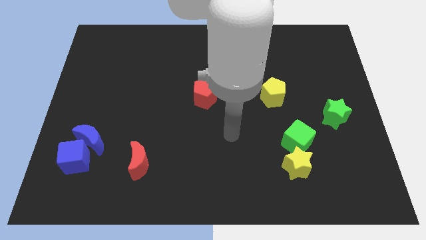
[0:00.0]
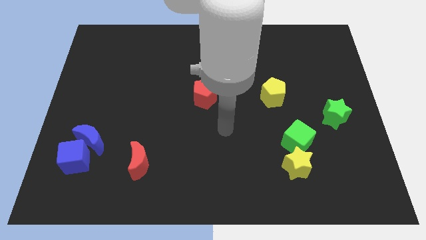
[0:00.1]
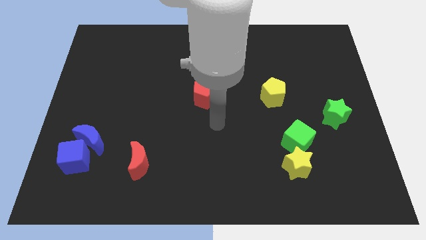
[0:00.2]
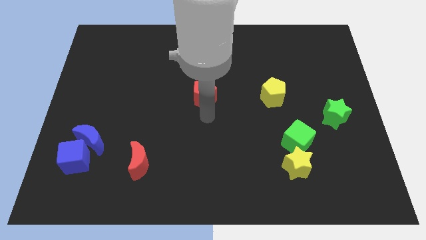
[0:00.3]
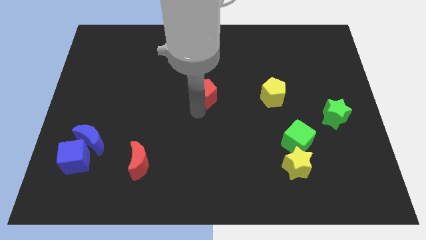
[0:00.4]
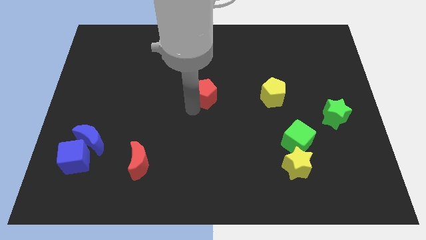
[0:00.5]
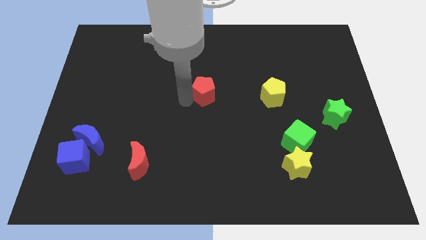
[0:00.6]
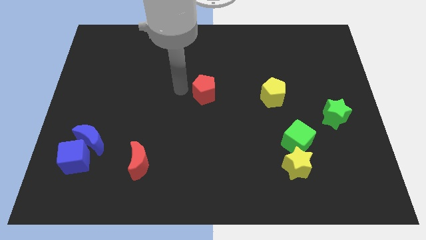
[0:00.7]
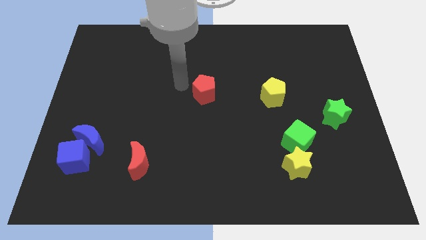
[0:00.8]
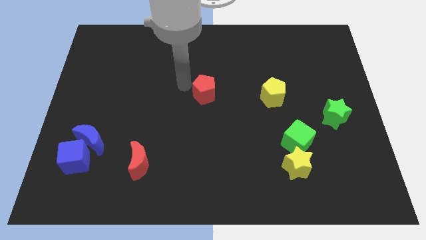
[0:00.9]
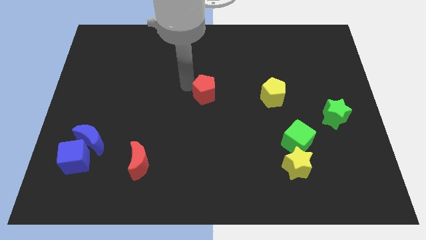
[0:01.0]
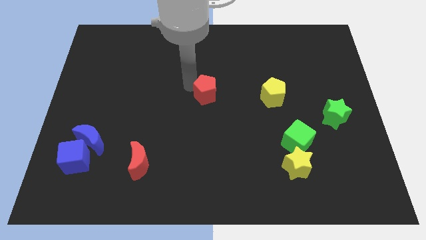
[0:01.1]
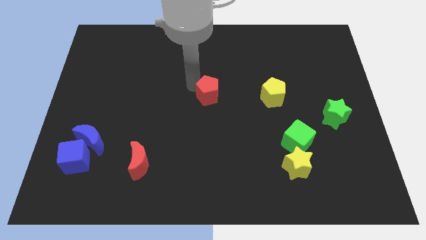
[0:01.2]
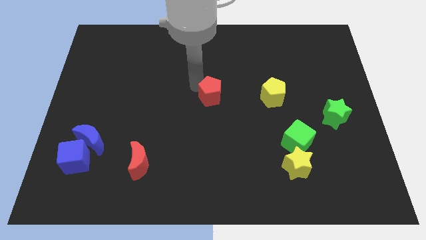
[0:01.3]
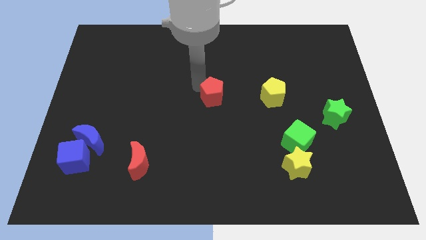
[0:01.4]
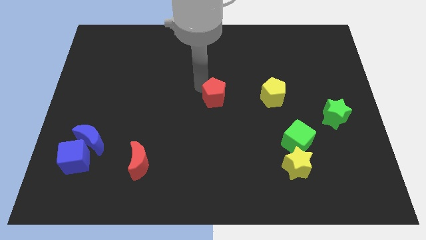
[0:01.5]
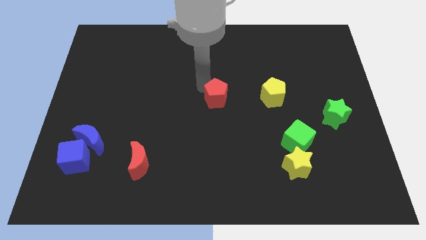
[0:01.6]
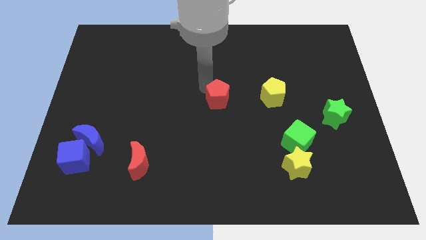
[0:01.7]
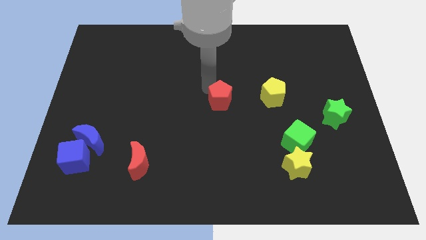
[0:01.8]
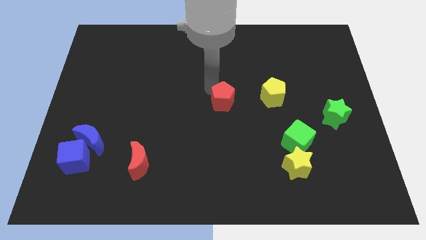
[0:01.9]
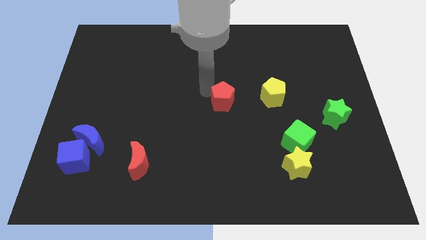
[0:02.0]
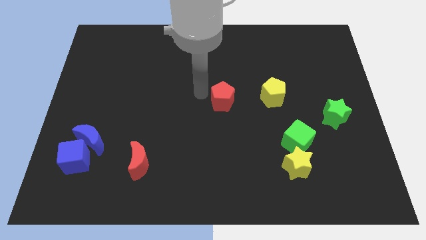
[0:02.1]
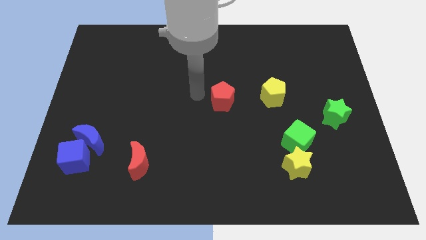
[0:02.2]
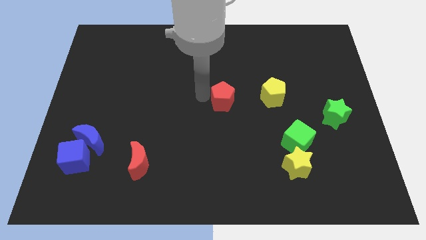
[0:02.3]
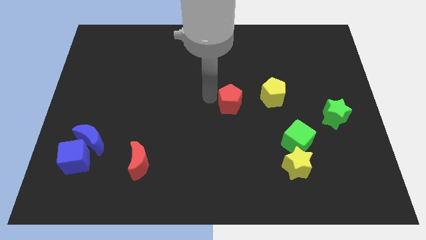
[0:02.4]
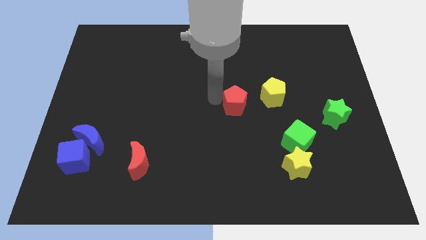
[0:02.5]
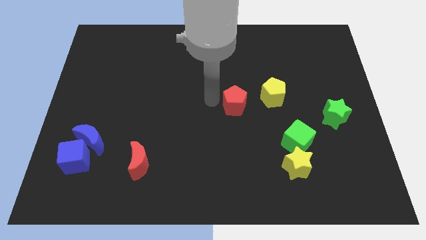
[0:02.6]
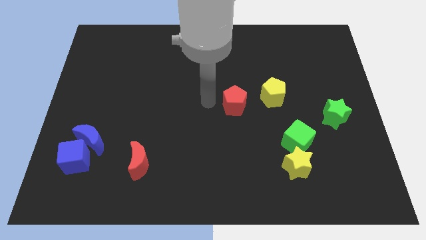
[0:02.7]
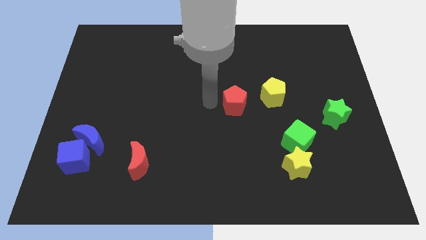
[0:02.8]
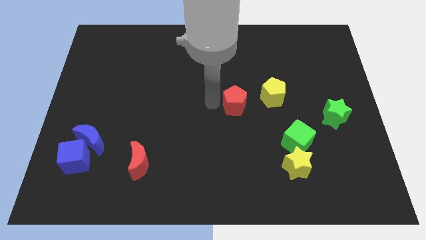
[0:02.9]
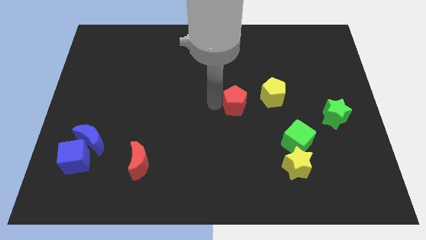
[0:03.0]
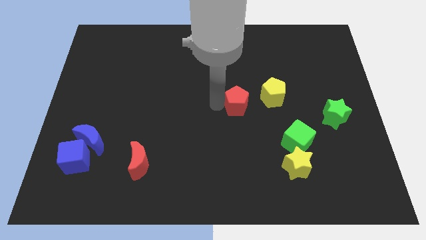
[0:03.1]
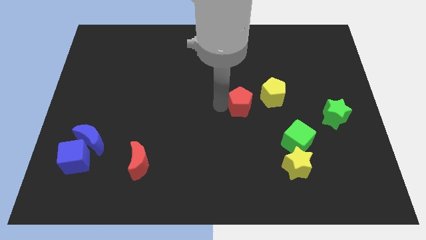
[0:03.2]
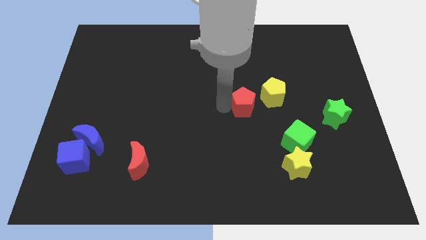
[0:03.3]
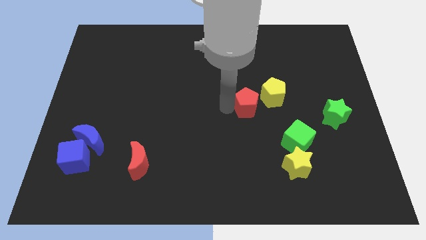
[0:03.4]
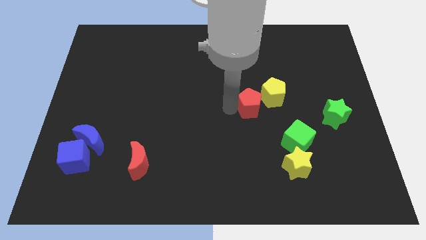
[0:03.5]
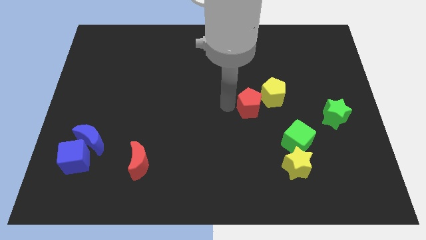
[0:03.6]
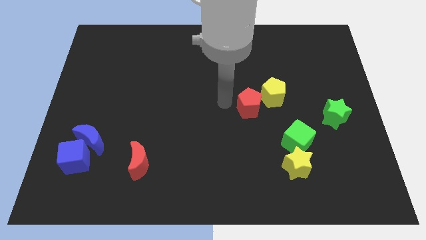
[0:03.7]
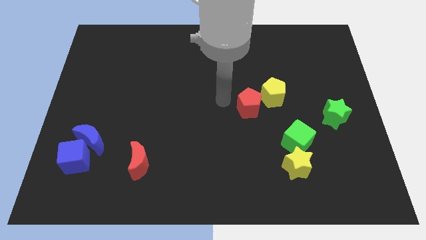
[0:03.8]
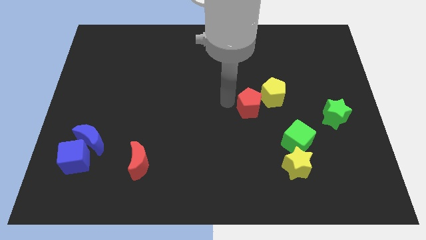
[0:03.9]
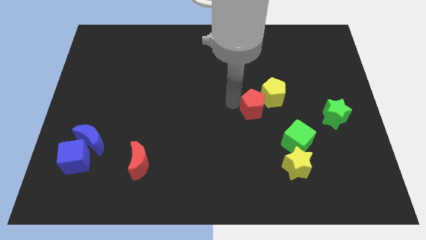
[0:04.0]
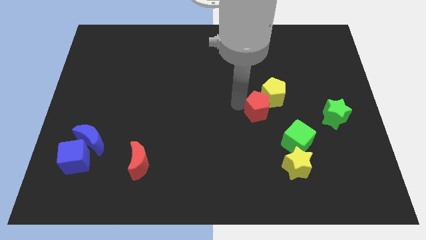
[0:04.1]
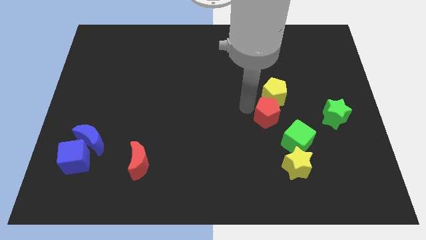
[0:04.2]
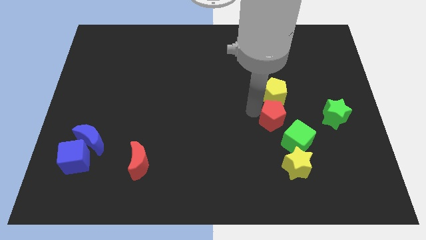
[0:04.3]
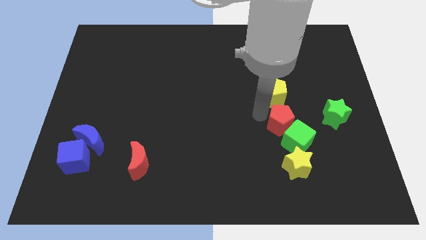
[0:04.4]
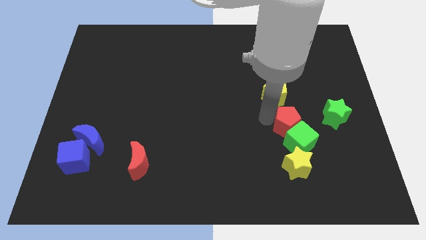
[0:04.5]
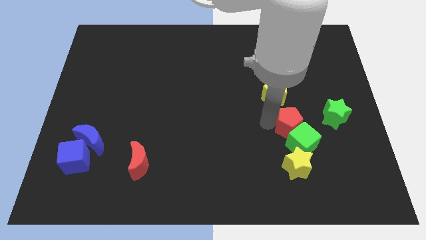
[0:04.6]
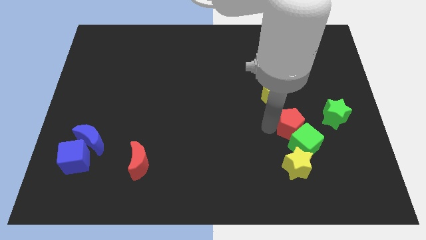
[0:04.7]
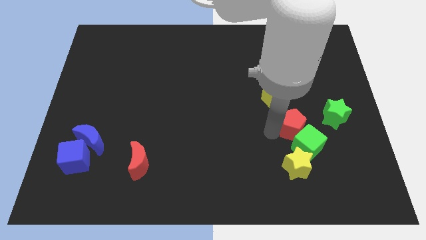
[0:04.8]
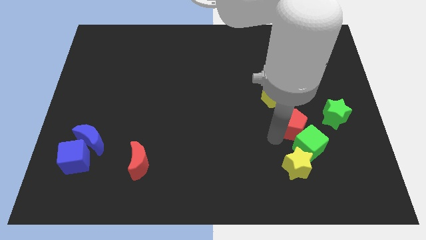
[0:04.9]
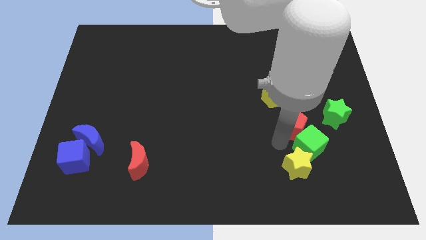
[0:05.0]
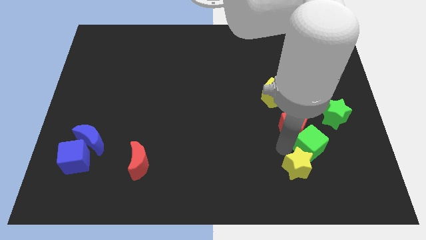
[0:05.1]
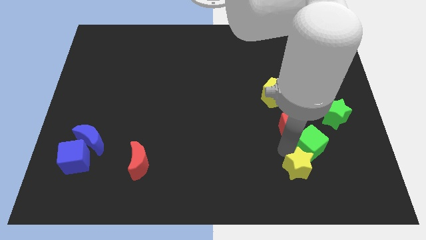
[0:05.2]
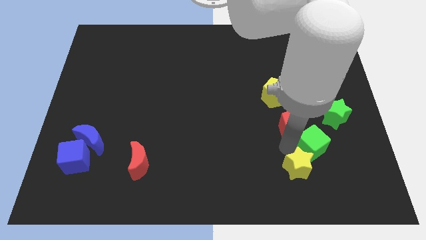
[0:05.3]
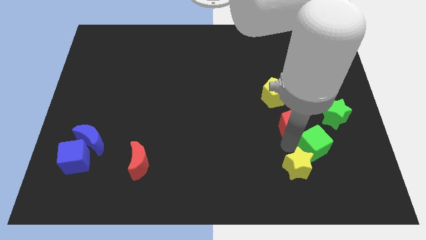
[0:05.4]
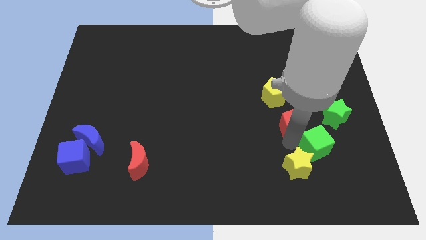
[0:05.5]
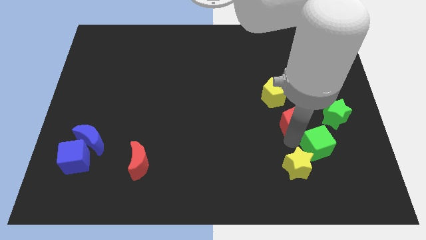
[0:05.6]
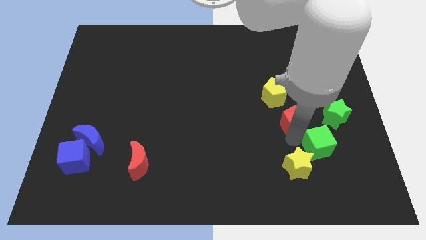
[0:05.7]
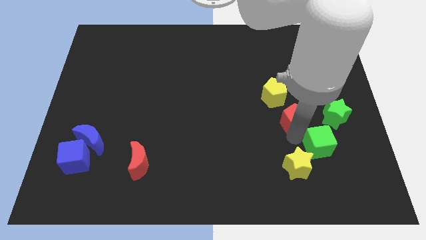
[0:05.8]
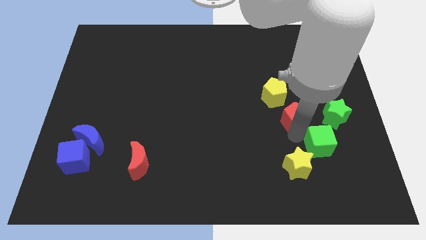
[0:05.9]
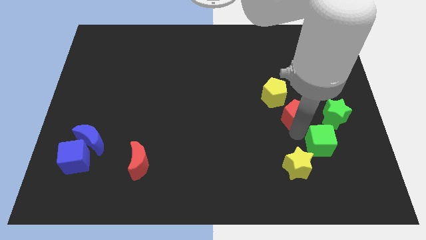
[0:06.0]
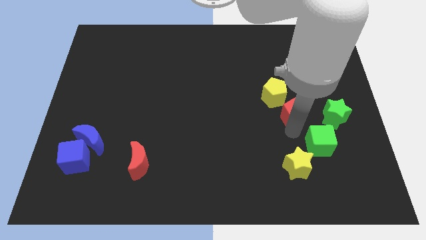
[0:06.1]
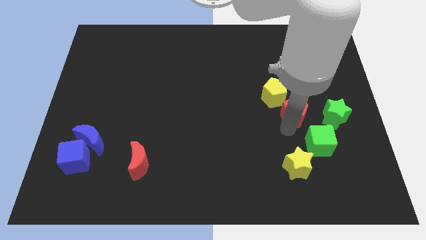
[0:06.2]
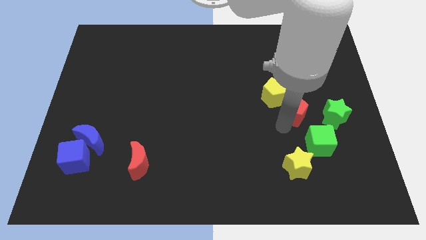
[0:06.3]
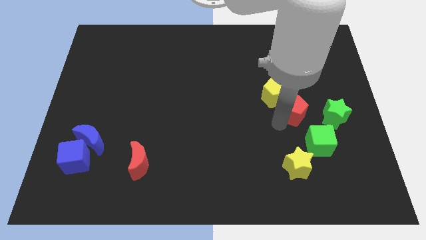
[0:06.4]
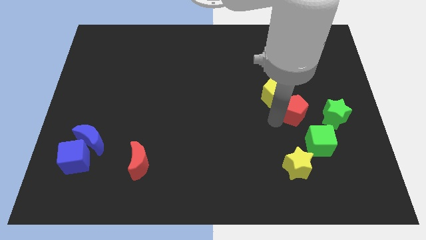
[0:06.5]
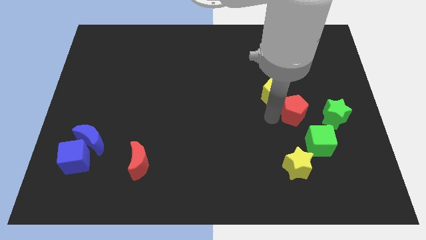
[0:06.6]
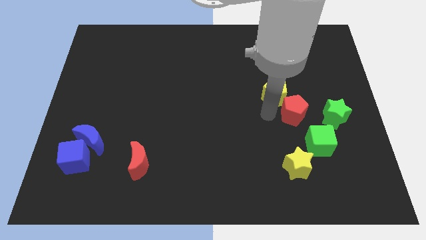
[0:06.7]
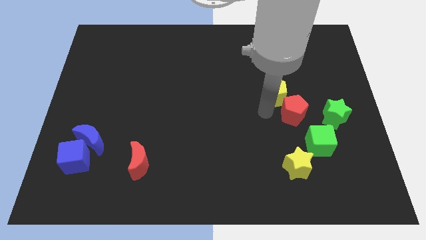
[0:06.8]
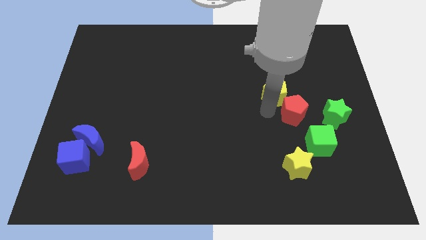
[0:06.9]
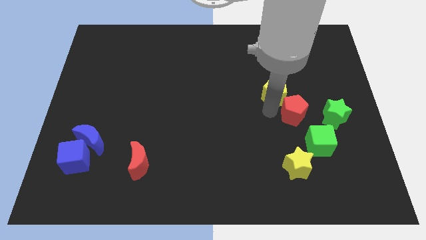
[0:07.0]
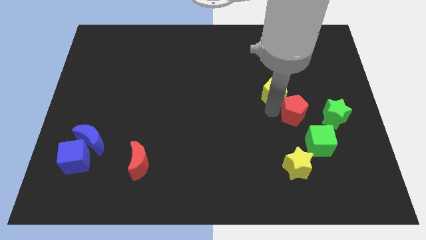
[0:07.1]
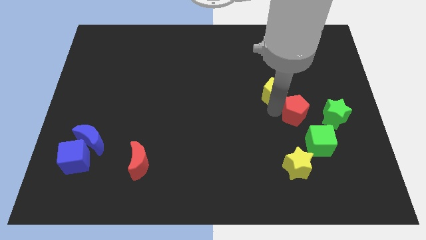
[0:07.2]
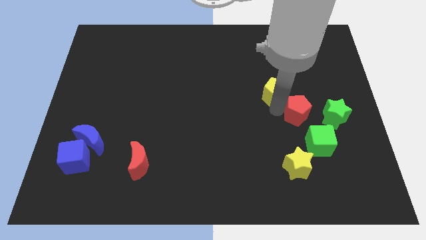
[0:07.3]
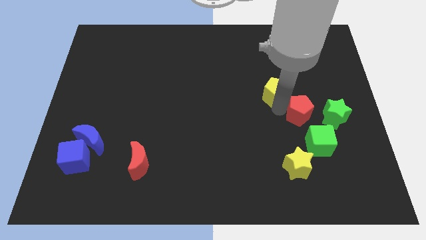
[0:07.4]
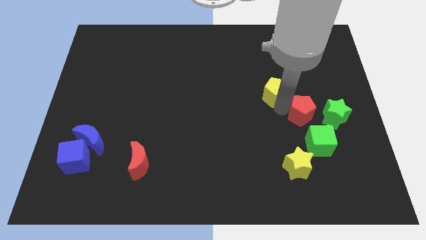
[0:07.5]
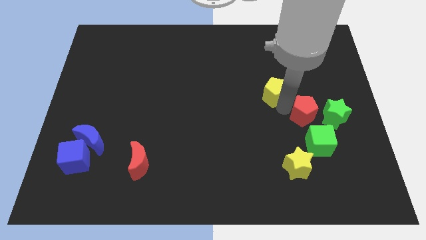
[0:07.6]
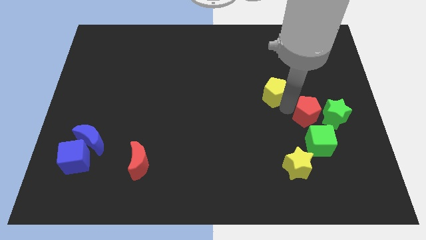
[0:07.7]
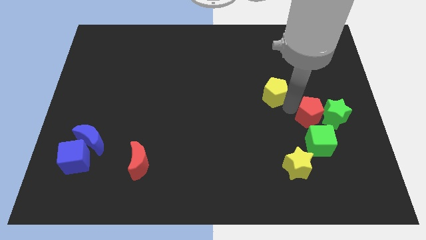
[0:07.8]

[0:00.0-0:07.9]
move the red pentagon next to the green star
